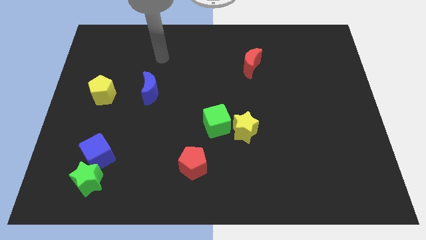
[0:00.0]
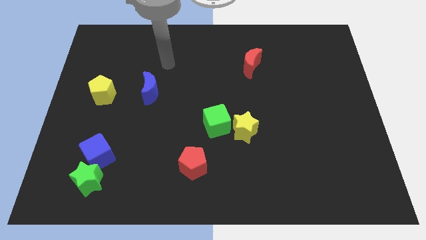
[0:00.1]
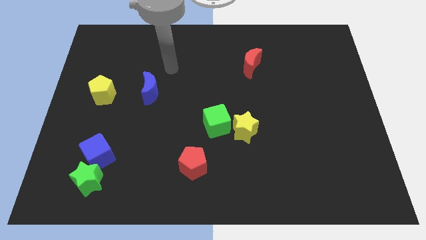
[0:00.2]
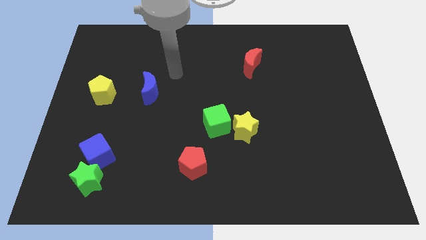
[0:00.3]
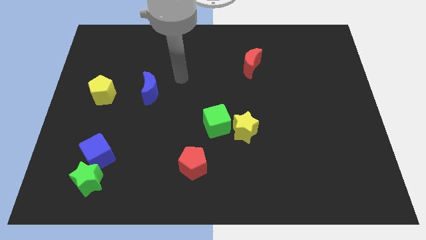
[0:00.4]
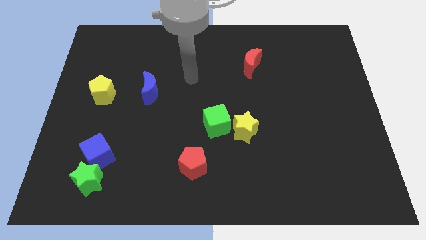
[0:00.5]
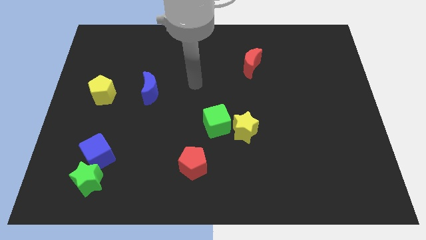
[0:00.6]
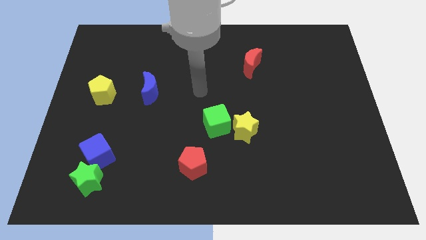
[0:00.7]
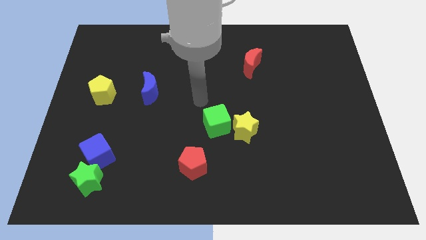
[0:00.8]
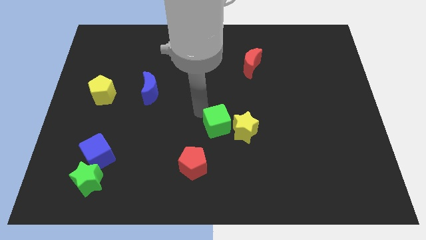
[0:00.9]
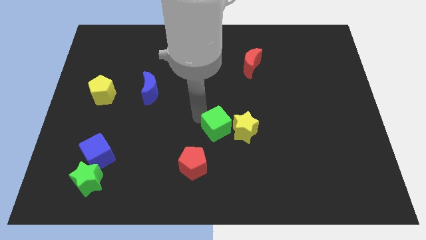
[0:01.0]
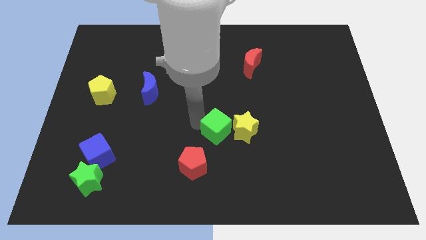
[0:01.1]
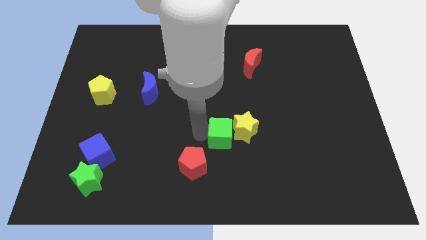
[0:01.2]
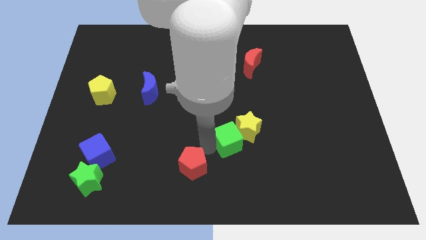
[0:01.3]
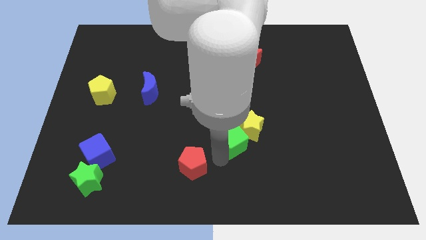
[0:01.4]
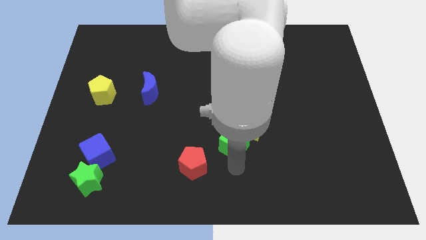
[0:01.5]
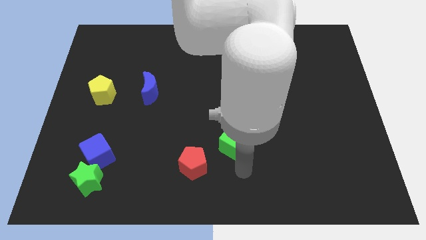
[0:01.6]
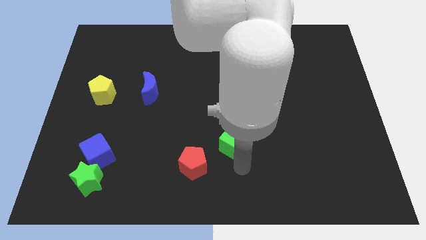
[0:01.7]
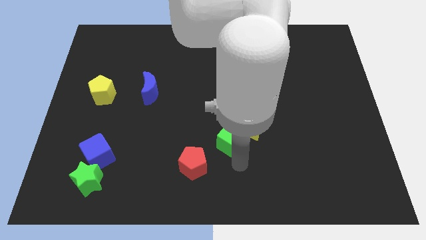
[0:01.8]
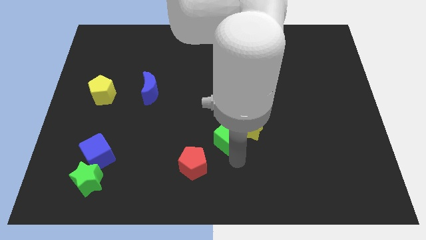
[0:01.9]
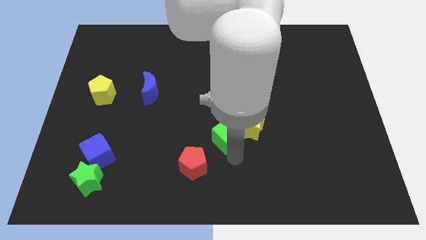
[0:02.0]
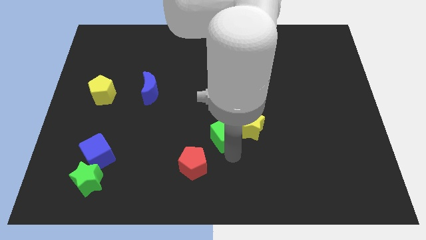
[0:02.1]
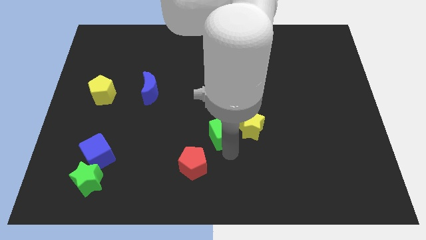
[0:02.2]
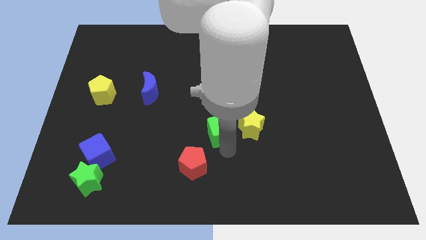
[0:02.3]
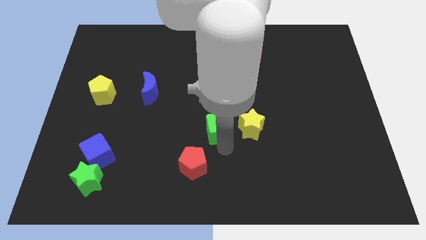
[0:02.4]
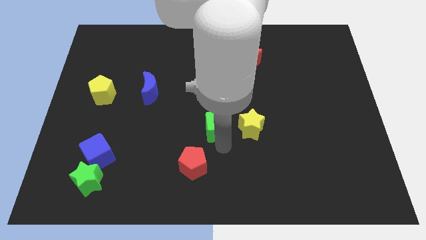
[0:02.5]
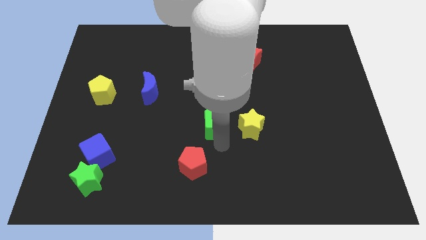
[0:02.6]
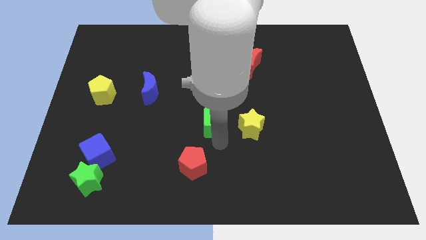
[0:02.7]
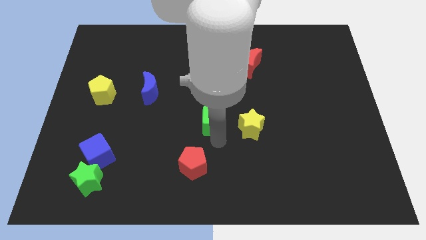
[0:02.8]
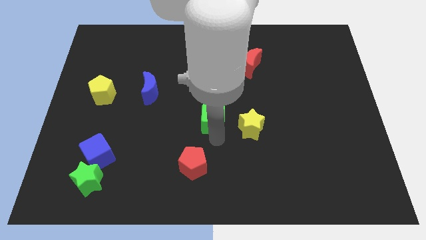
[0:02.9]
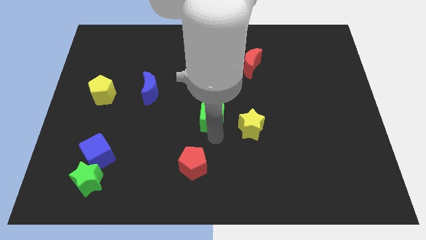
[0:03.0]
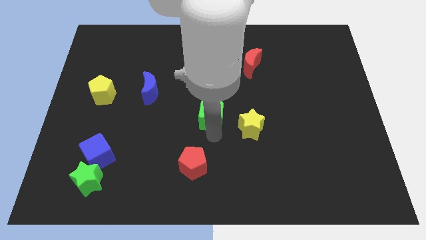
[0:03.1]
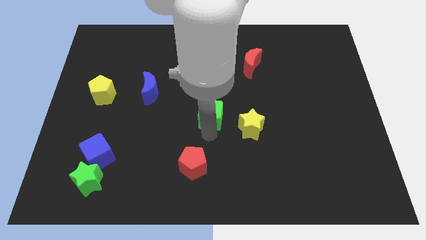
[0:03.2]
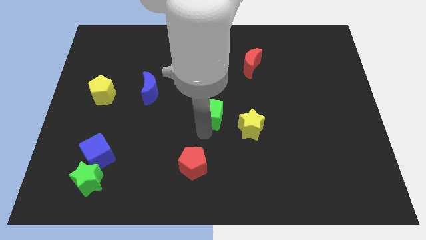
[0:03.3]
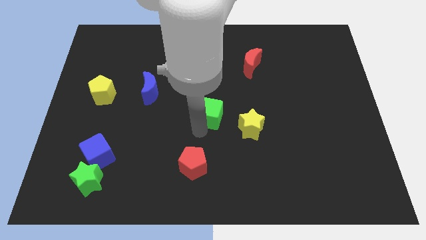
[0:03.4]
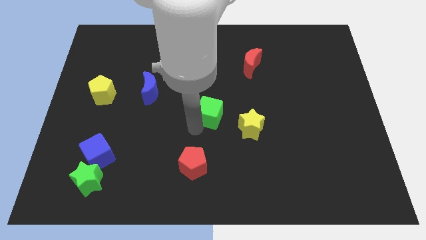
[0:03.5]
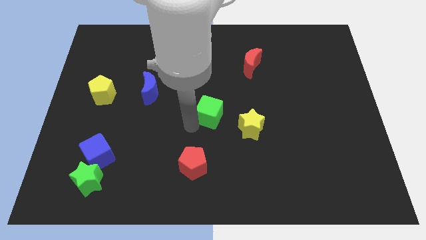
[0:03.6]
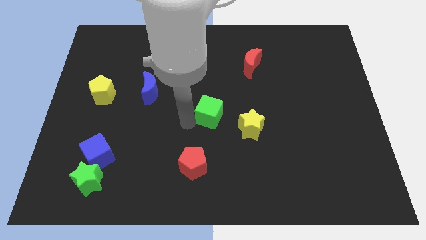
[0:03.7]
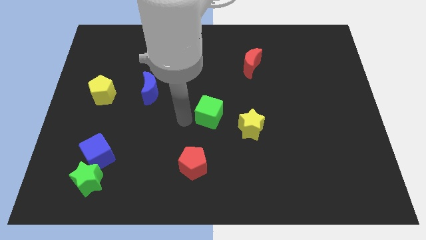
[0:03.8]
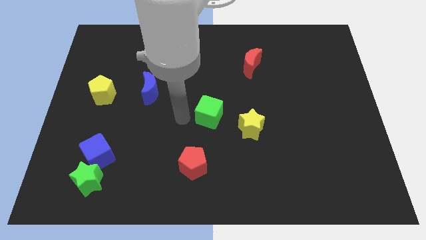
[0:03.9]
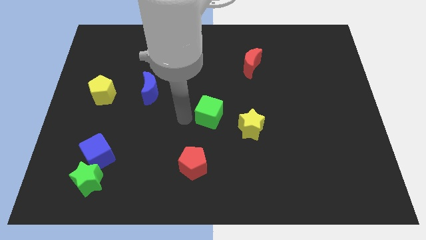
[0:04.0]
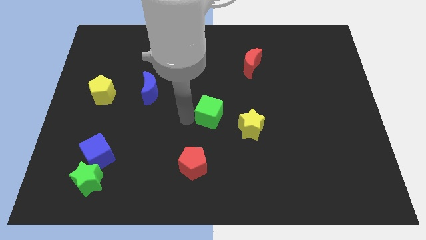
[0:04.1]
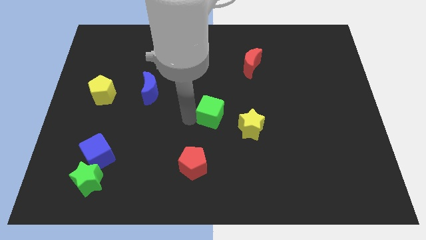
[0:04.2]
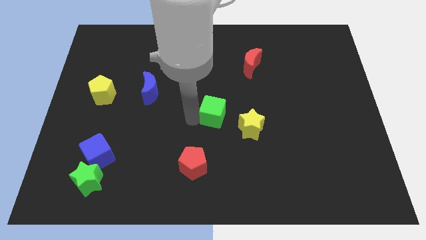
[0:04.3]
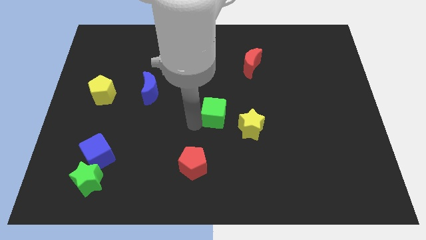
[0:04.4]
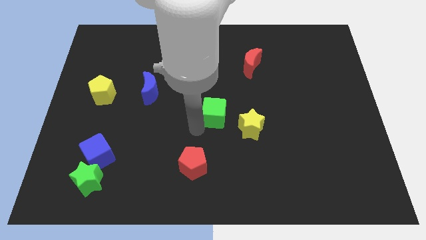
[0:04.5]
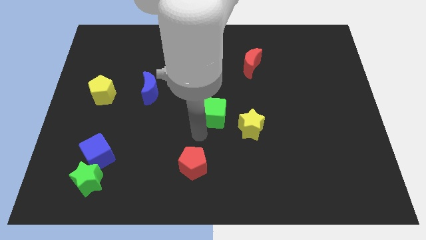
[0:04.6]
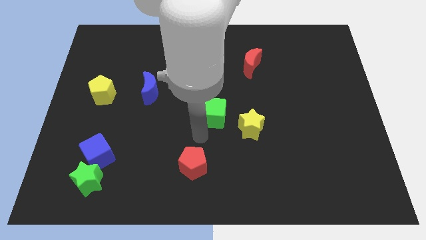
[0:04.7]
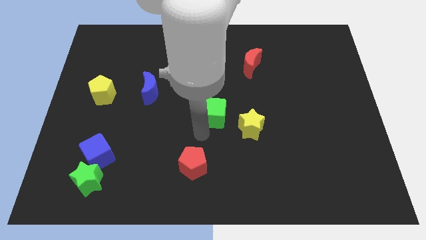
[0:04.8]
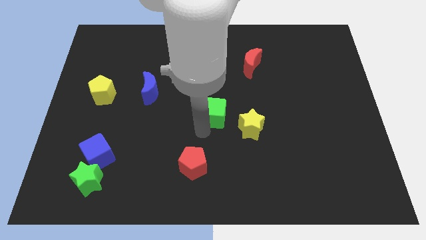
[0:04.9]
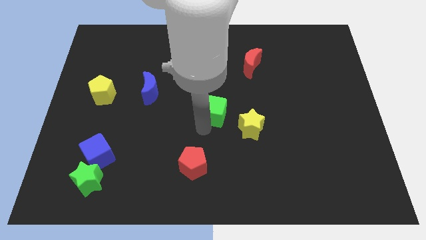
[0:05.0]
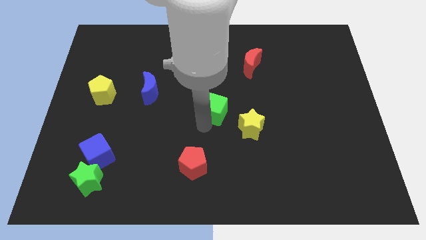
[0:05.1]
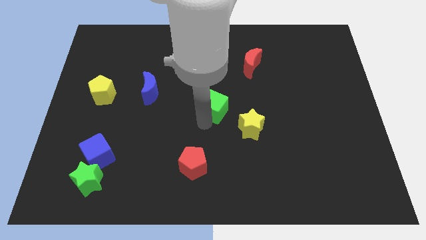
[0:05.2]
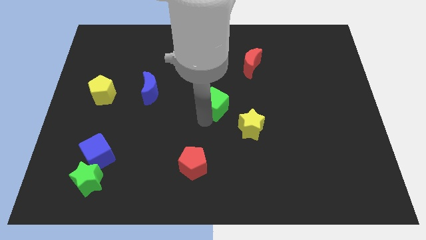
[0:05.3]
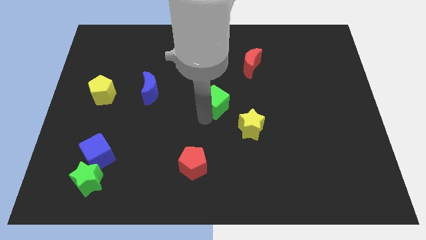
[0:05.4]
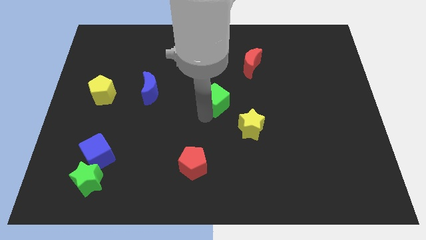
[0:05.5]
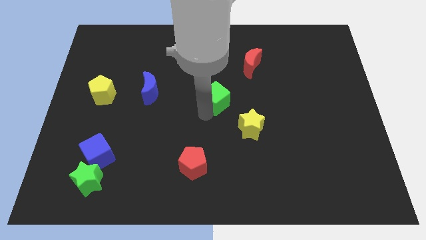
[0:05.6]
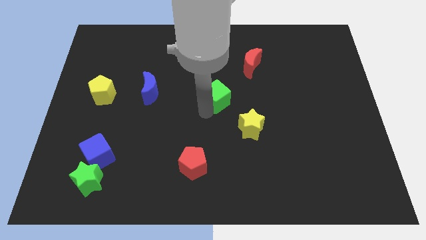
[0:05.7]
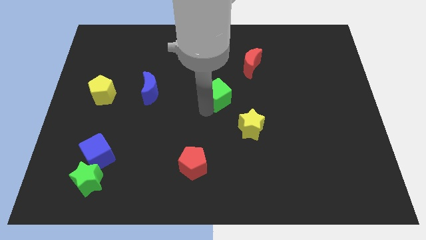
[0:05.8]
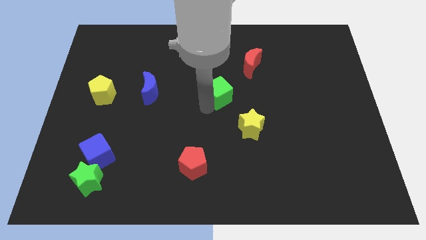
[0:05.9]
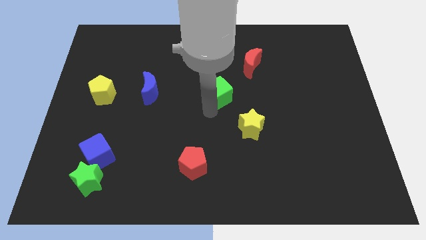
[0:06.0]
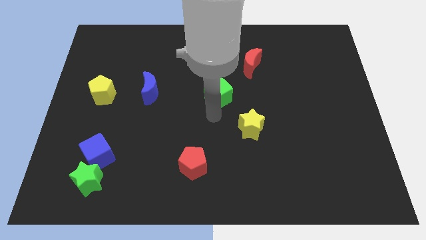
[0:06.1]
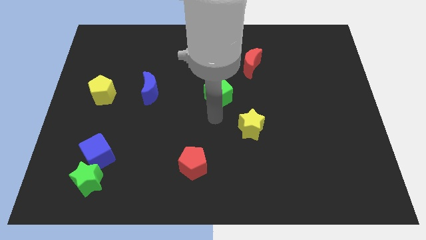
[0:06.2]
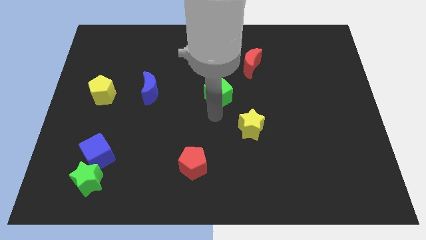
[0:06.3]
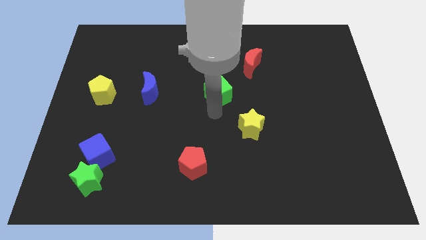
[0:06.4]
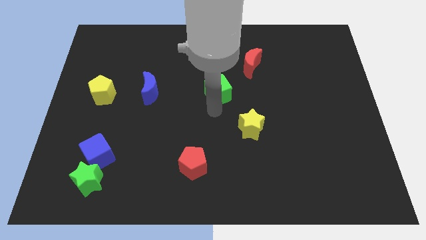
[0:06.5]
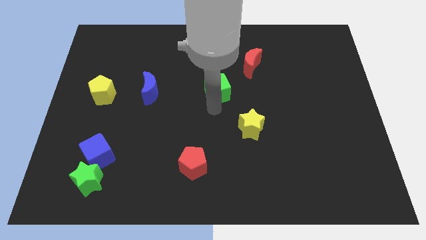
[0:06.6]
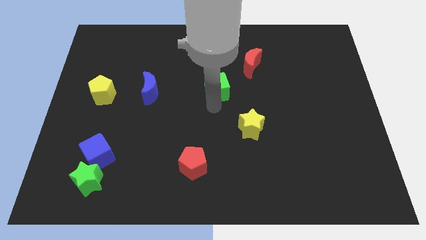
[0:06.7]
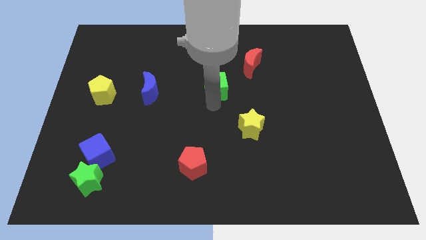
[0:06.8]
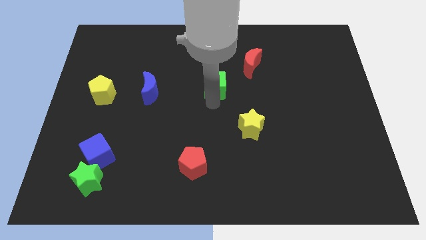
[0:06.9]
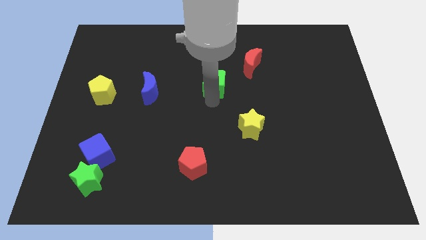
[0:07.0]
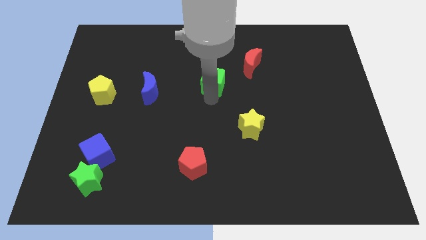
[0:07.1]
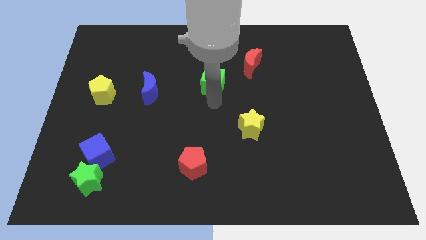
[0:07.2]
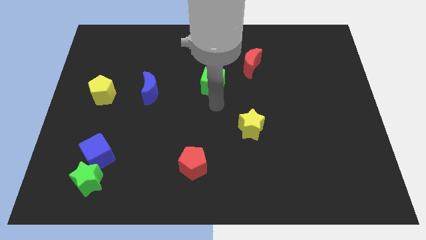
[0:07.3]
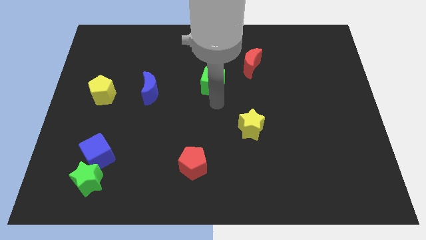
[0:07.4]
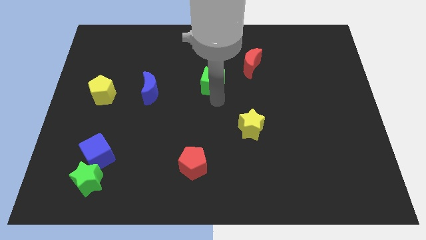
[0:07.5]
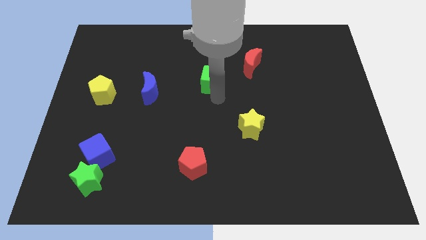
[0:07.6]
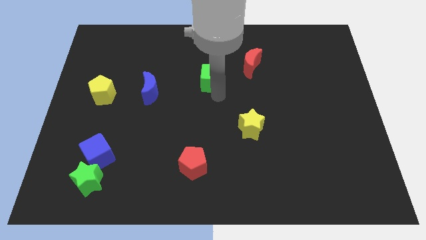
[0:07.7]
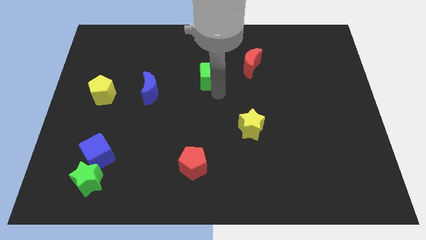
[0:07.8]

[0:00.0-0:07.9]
push the green cube left of the red moon
